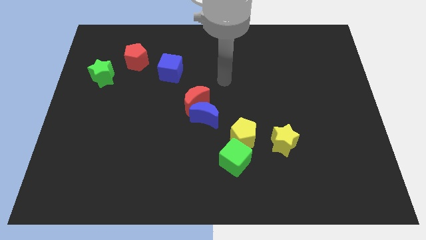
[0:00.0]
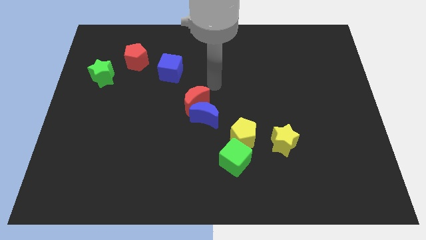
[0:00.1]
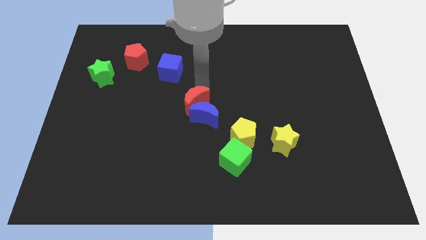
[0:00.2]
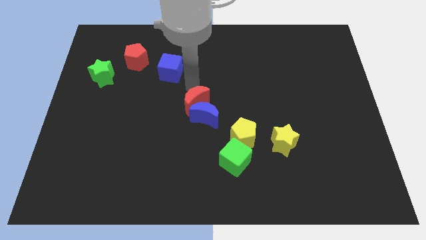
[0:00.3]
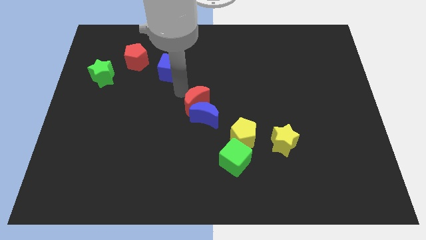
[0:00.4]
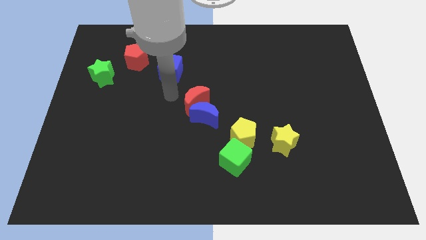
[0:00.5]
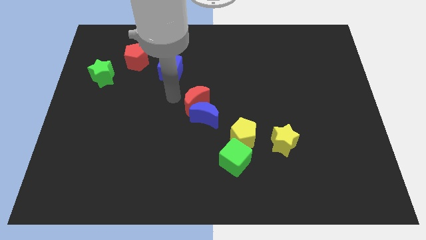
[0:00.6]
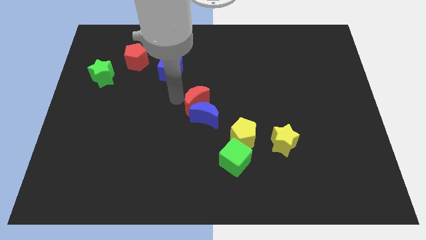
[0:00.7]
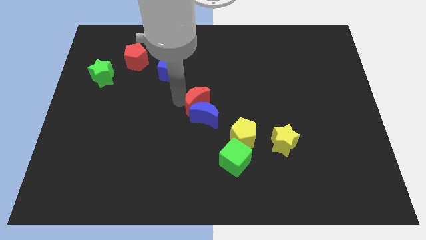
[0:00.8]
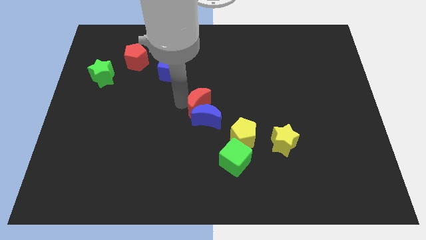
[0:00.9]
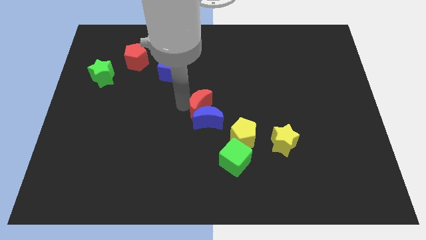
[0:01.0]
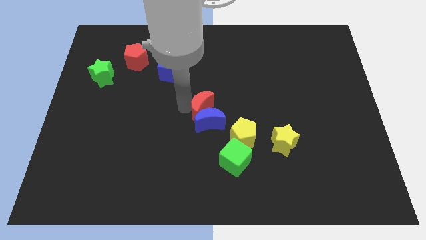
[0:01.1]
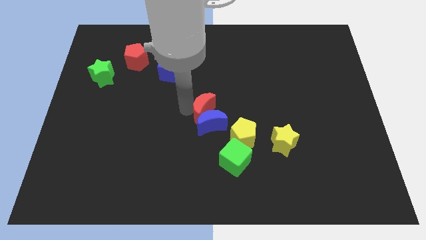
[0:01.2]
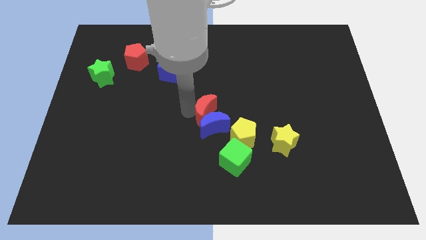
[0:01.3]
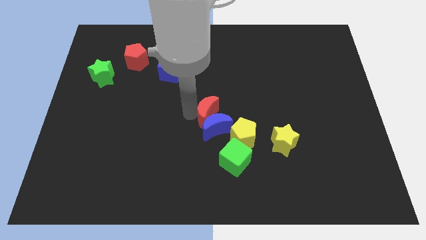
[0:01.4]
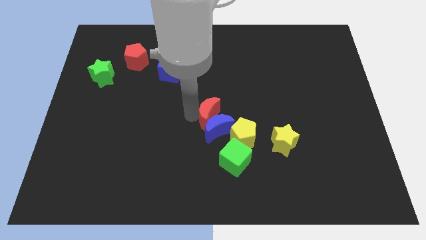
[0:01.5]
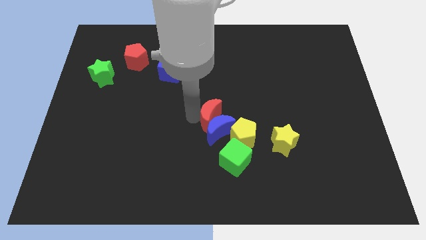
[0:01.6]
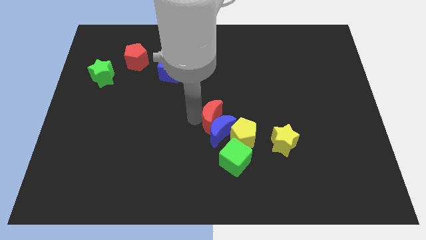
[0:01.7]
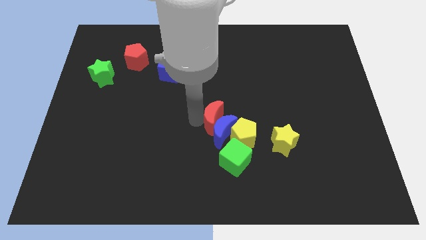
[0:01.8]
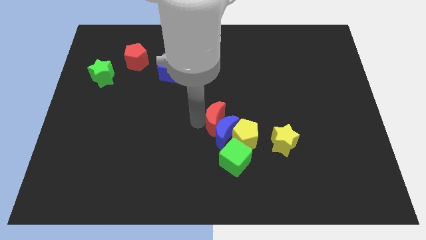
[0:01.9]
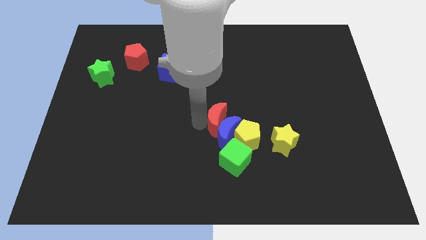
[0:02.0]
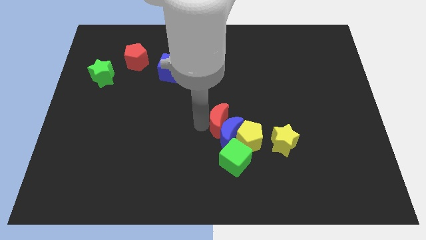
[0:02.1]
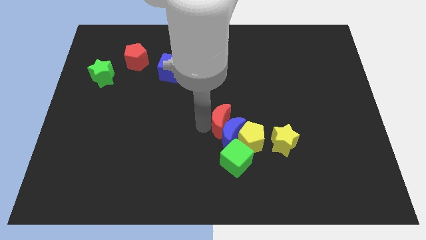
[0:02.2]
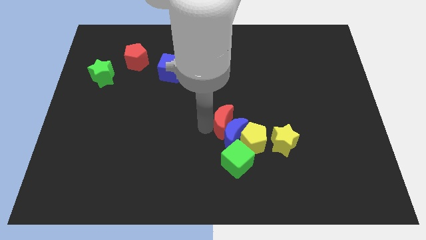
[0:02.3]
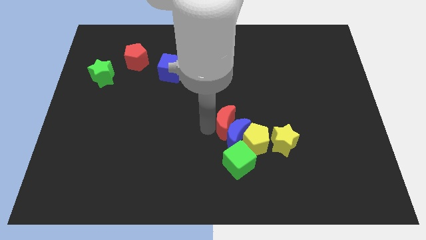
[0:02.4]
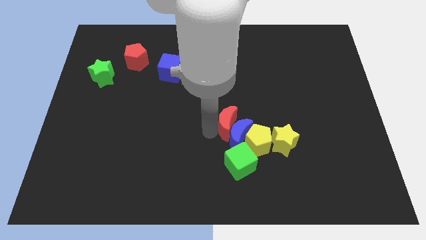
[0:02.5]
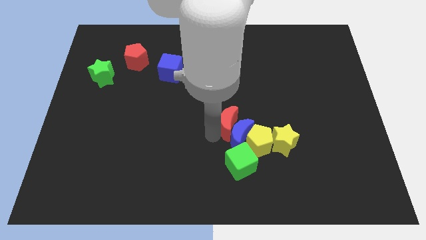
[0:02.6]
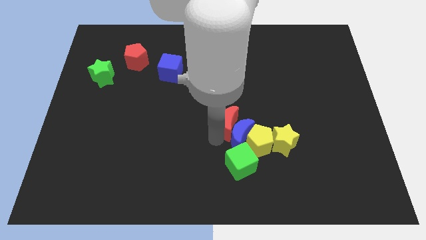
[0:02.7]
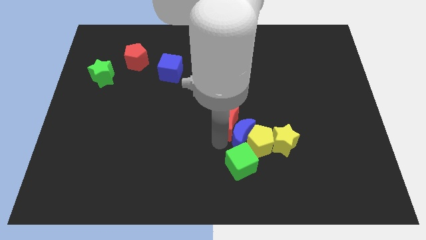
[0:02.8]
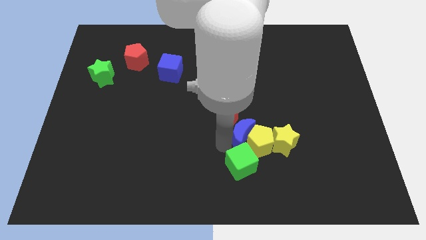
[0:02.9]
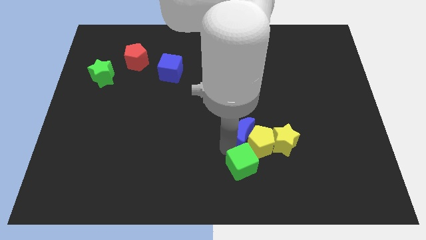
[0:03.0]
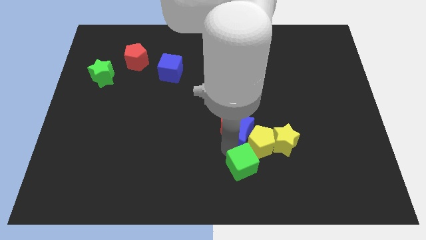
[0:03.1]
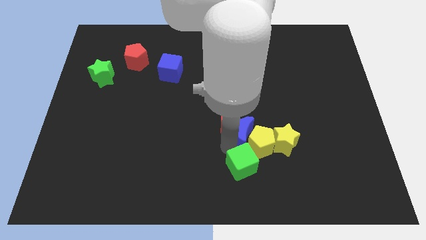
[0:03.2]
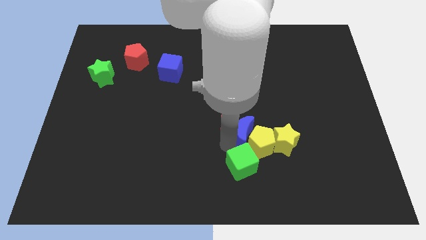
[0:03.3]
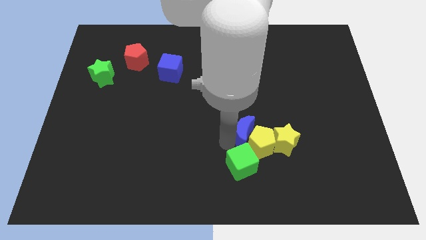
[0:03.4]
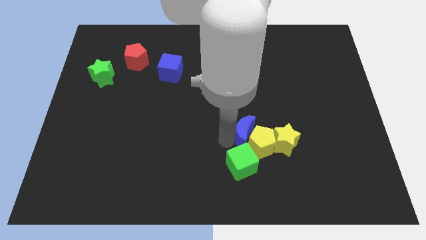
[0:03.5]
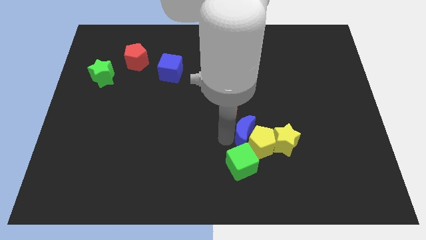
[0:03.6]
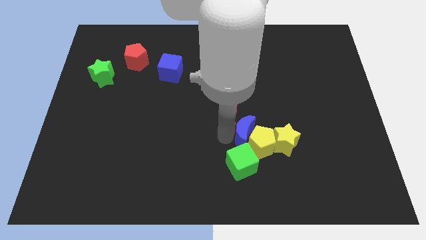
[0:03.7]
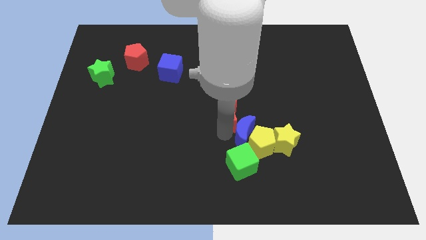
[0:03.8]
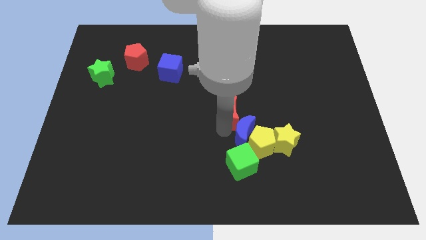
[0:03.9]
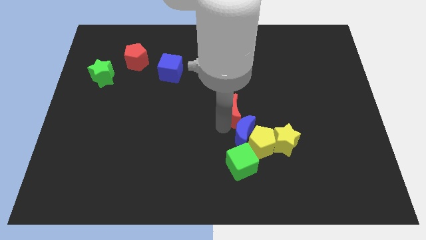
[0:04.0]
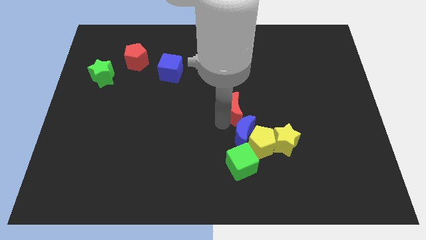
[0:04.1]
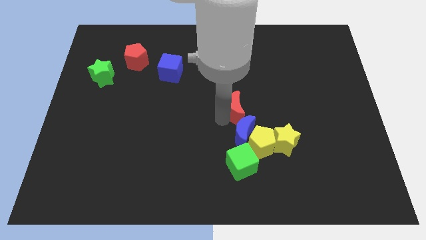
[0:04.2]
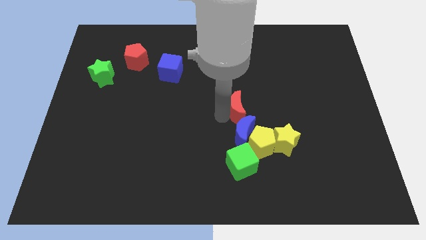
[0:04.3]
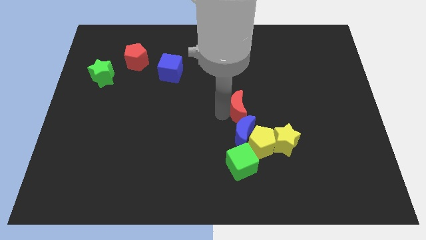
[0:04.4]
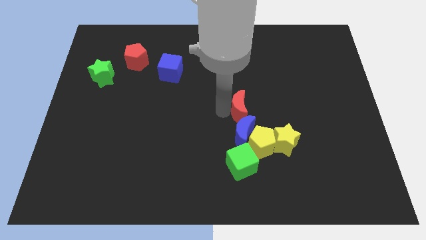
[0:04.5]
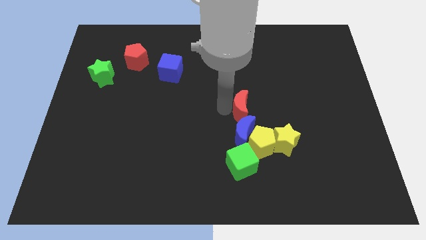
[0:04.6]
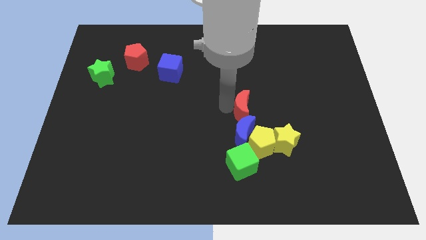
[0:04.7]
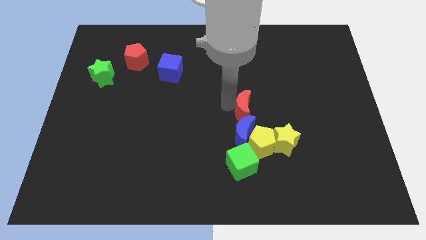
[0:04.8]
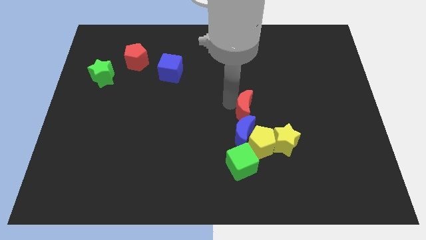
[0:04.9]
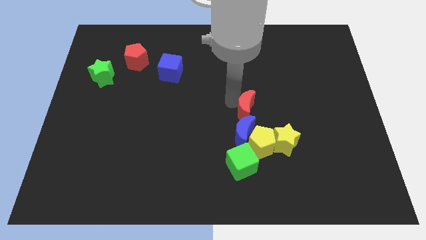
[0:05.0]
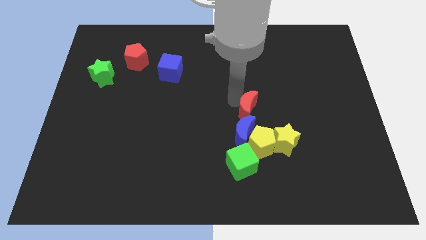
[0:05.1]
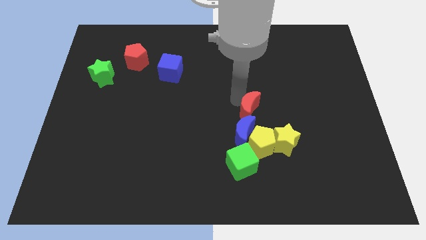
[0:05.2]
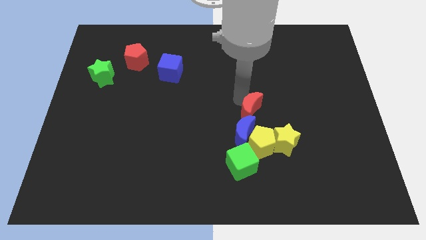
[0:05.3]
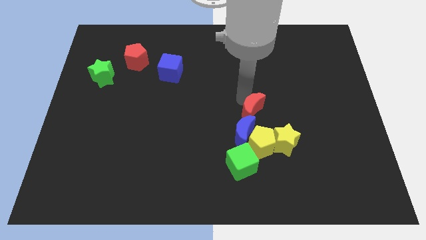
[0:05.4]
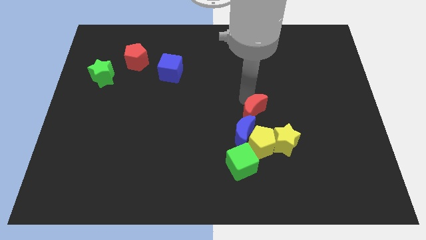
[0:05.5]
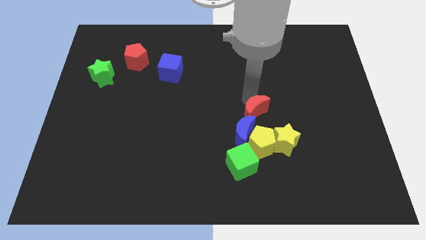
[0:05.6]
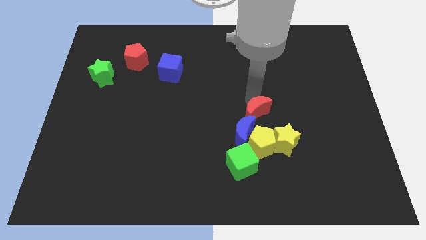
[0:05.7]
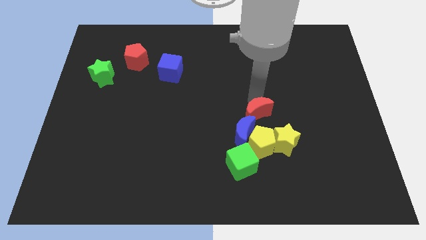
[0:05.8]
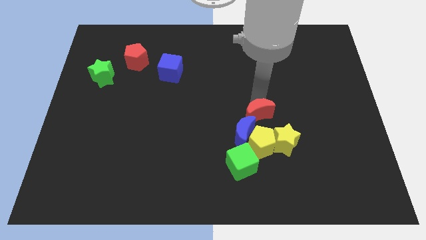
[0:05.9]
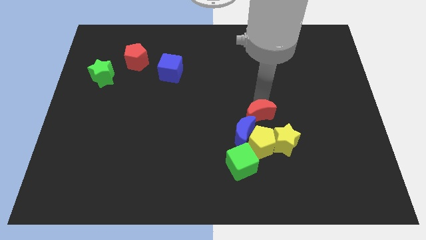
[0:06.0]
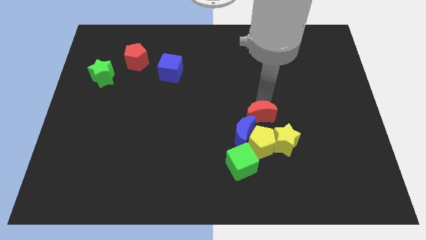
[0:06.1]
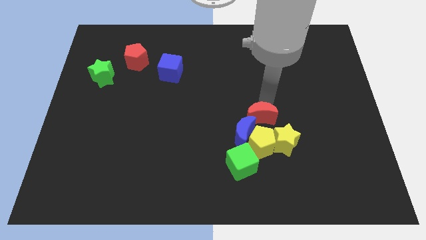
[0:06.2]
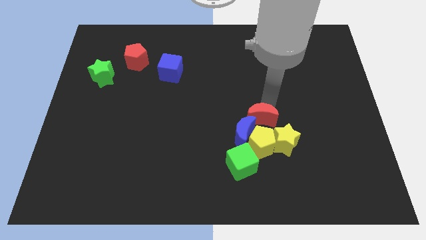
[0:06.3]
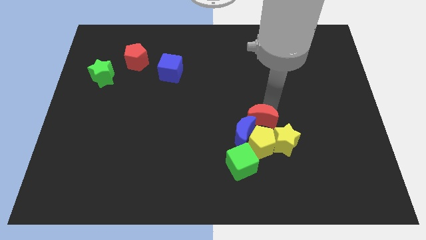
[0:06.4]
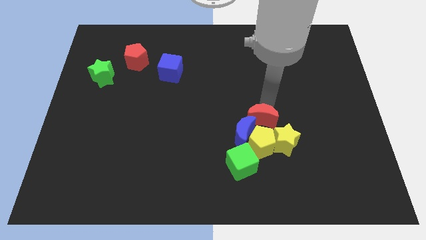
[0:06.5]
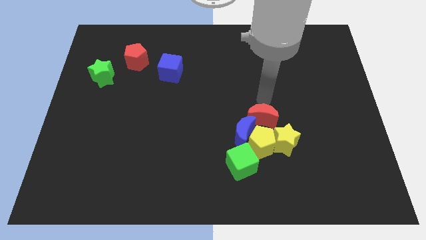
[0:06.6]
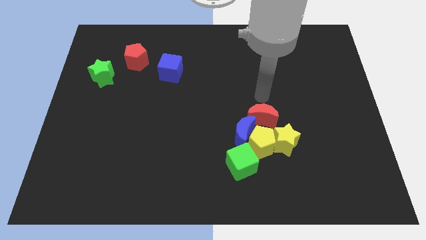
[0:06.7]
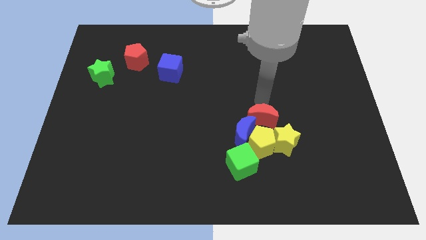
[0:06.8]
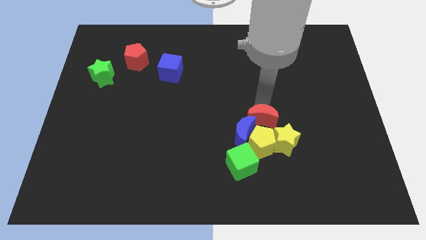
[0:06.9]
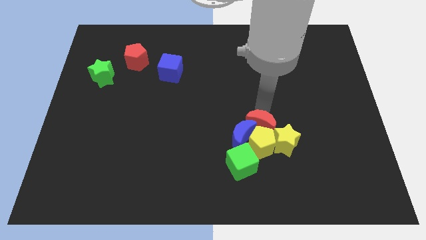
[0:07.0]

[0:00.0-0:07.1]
slide the red moon close to the yellow pentagon

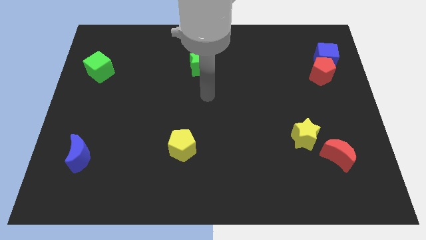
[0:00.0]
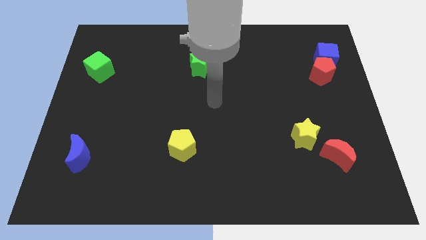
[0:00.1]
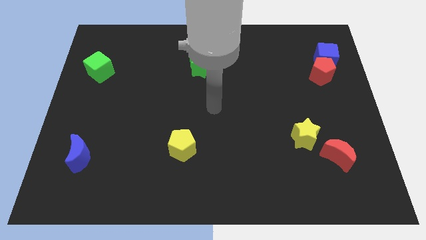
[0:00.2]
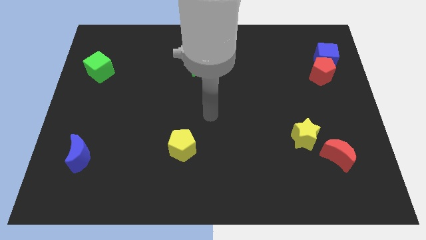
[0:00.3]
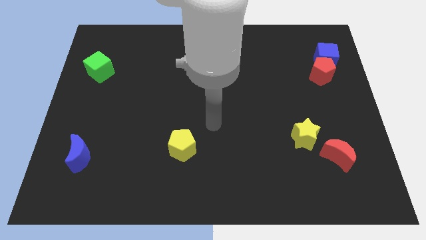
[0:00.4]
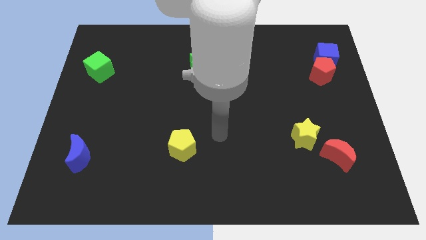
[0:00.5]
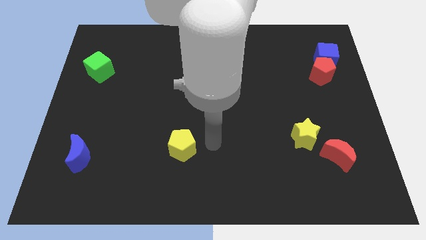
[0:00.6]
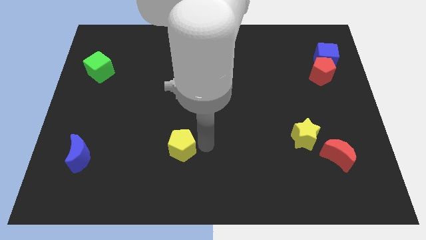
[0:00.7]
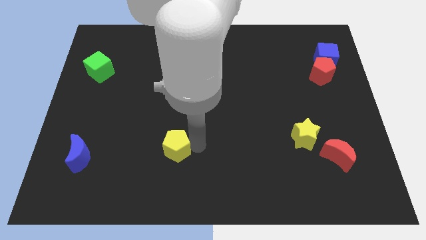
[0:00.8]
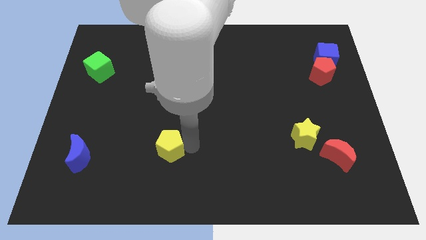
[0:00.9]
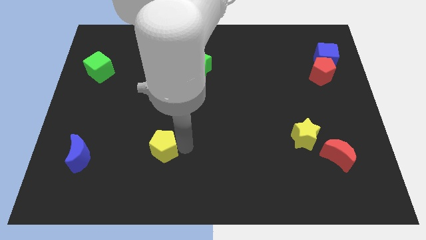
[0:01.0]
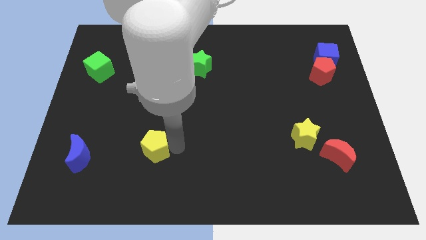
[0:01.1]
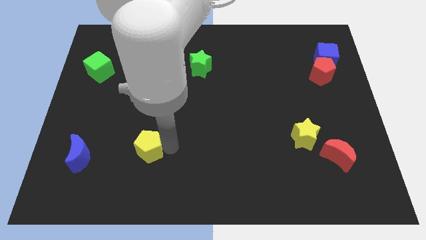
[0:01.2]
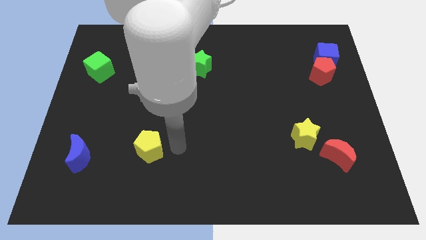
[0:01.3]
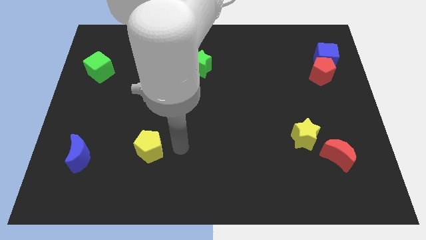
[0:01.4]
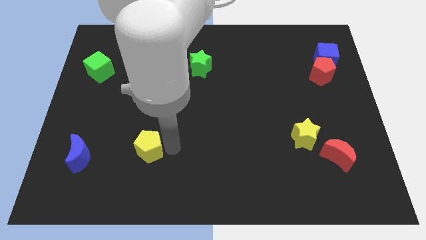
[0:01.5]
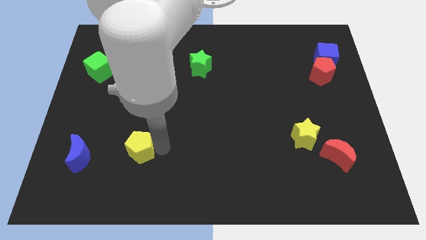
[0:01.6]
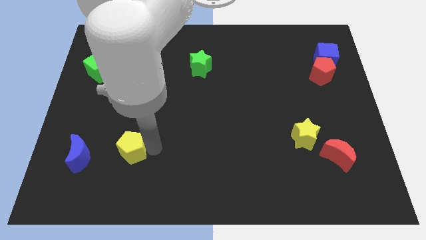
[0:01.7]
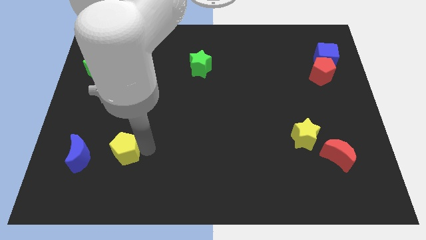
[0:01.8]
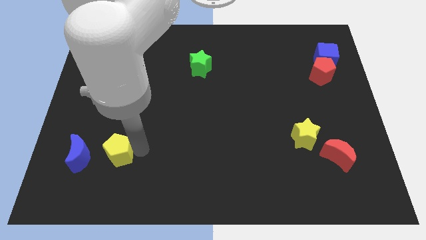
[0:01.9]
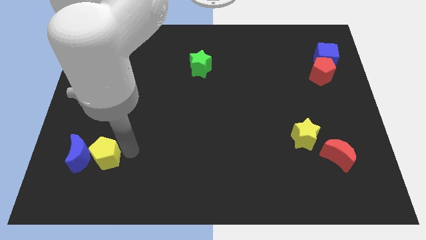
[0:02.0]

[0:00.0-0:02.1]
slide the yellow pentagon close to the blue moon
